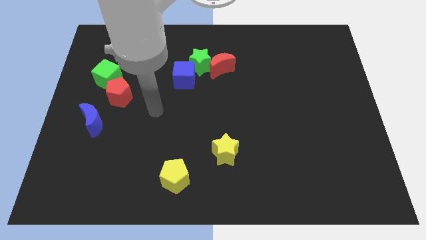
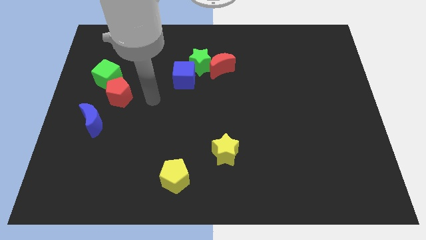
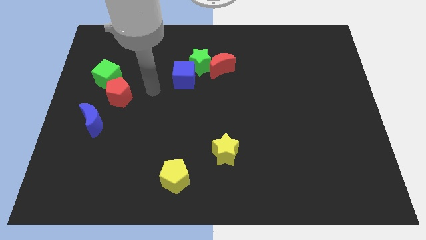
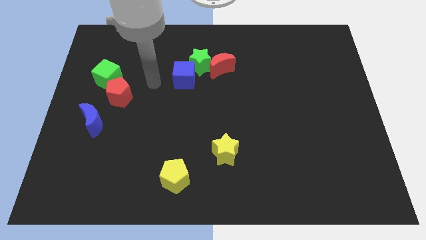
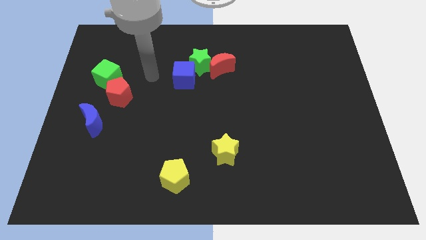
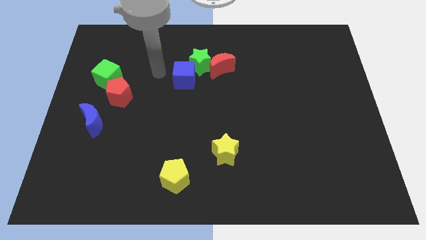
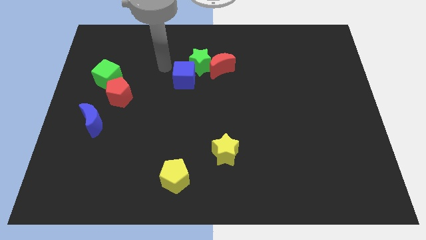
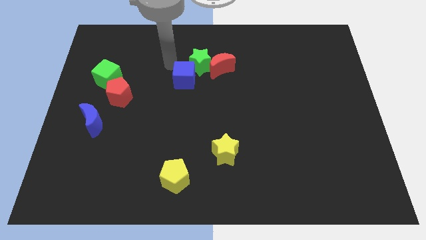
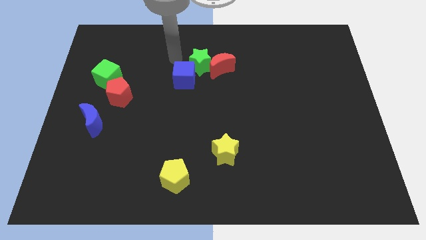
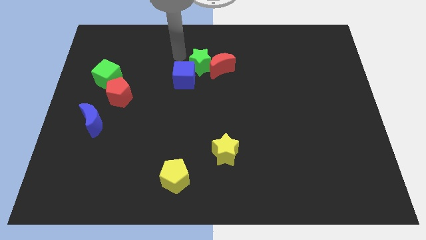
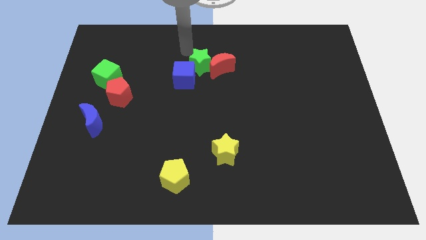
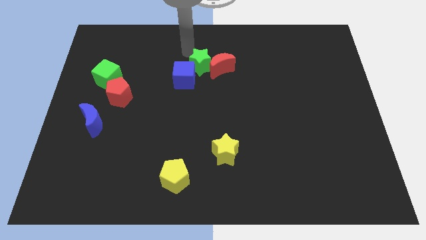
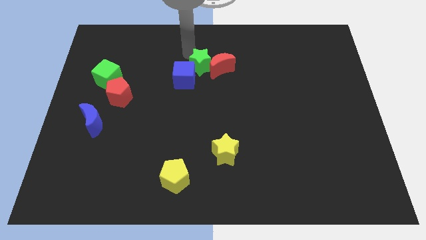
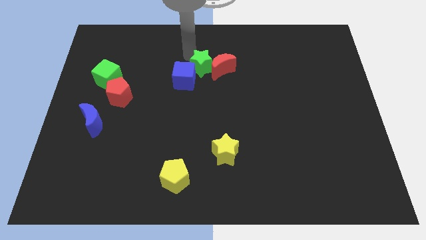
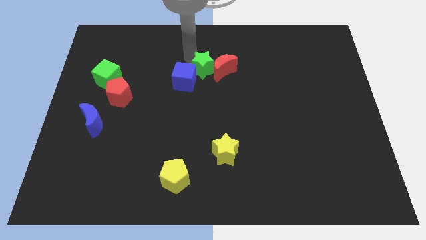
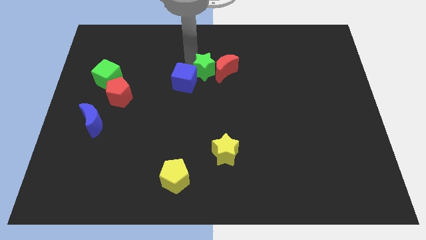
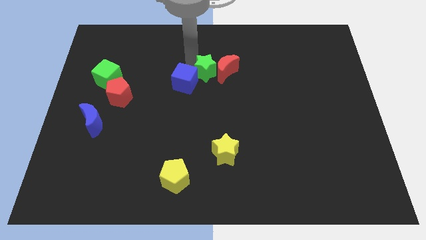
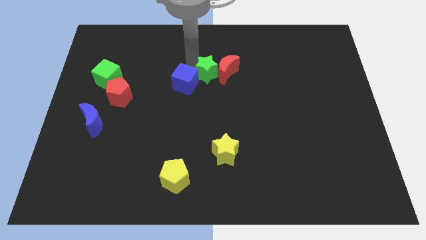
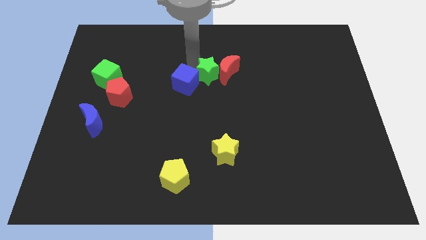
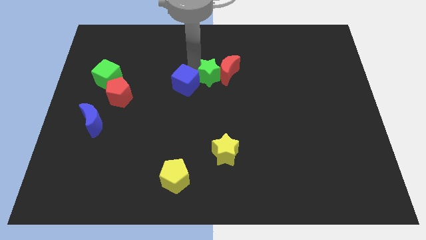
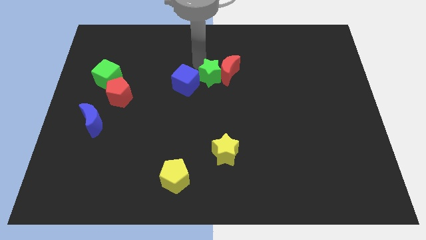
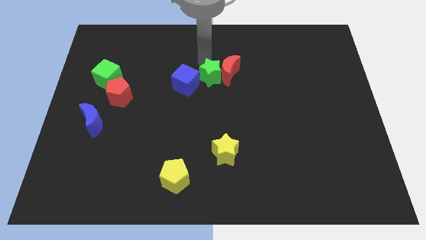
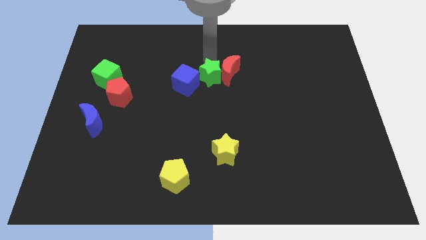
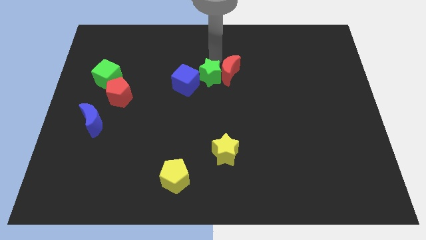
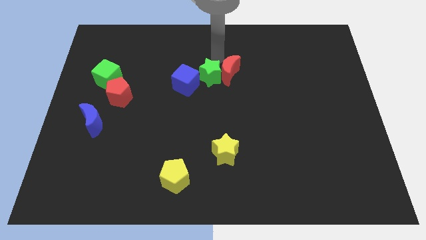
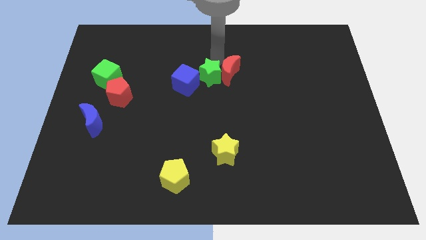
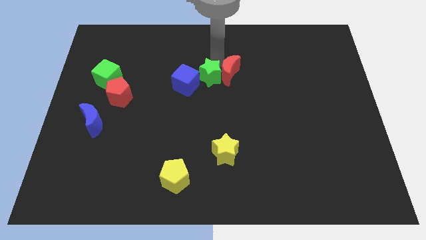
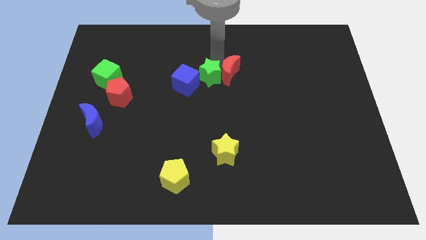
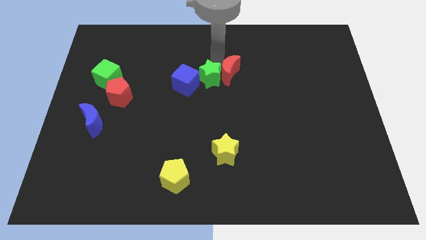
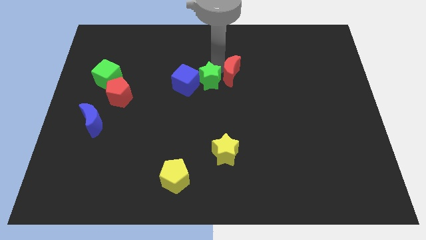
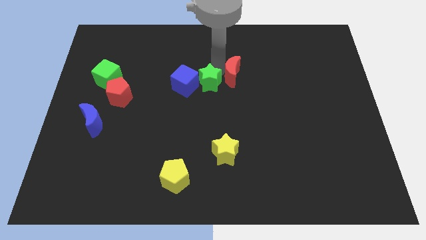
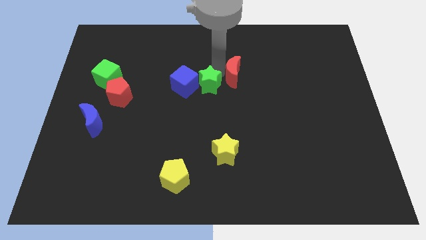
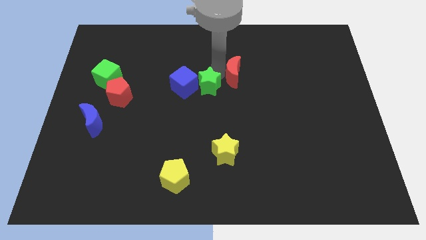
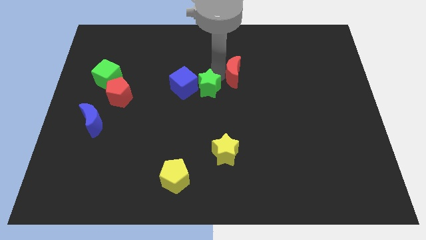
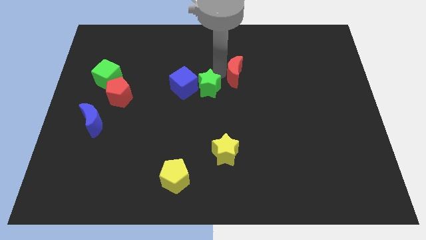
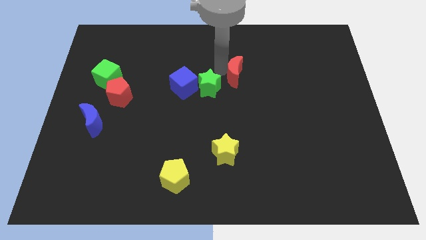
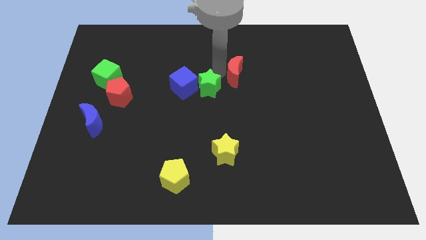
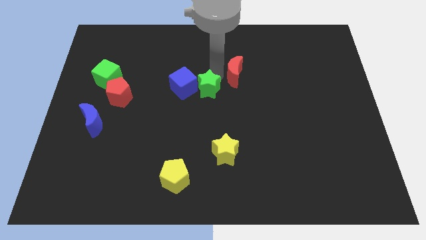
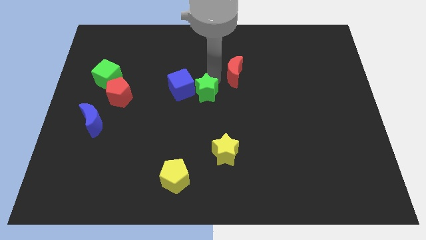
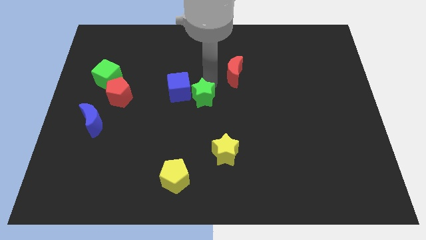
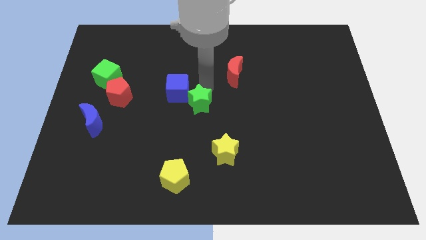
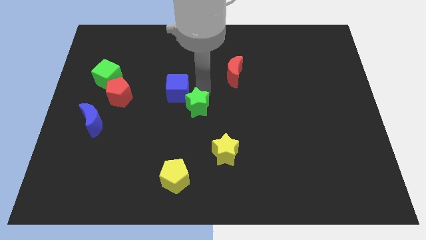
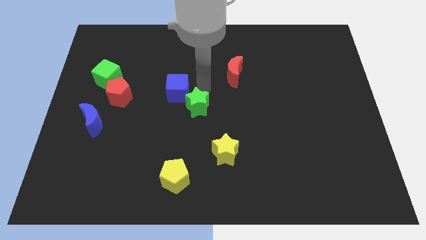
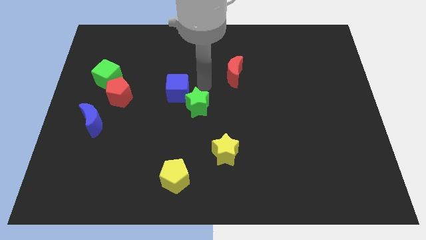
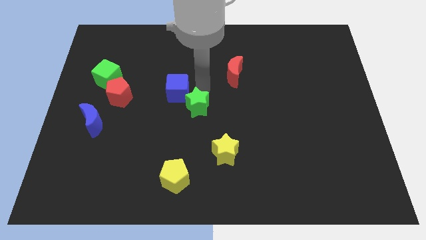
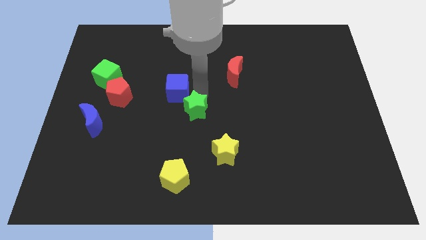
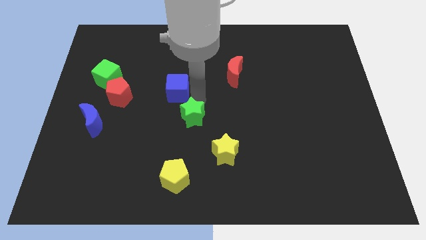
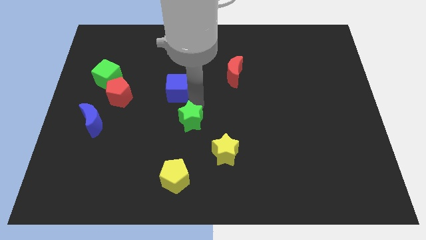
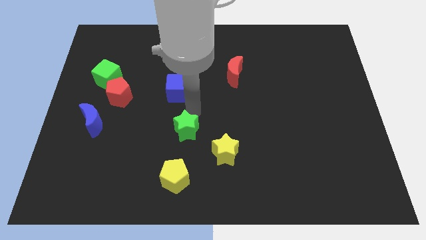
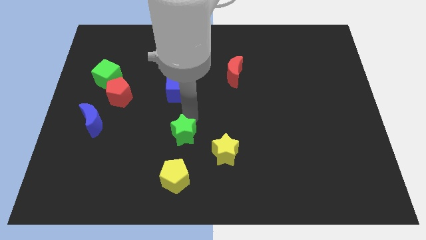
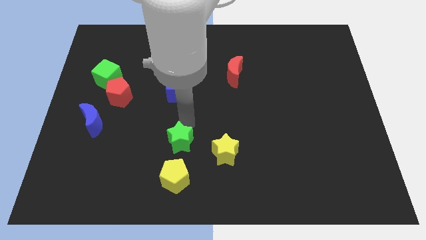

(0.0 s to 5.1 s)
push the green star to the left side of the yellow star

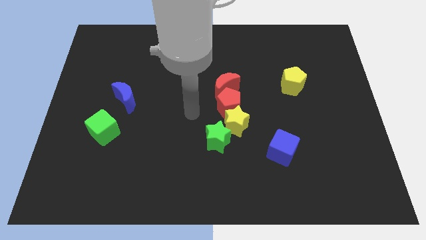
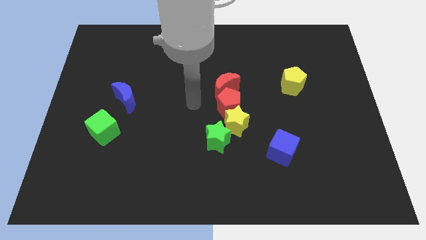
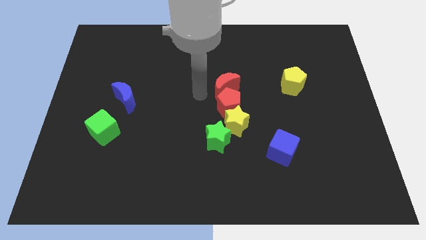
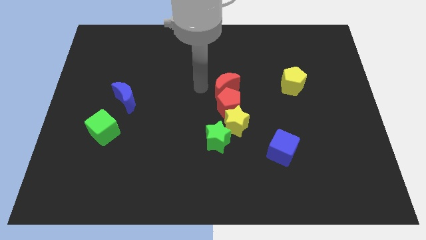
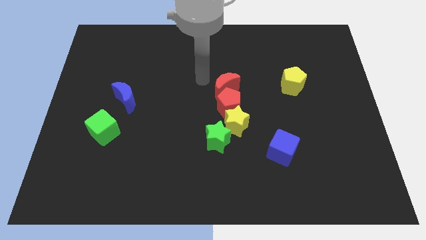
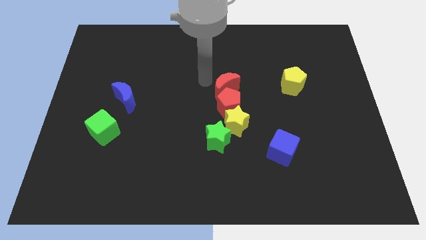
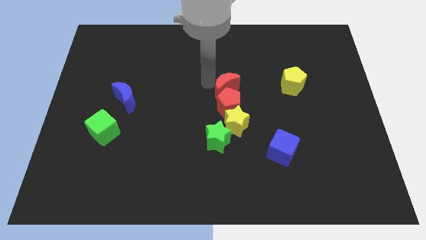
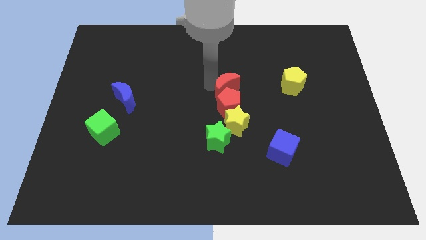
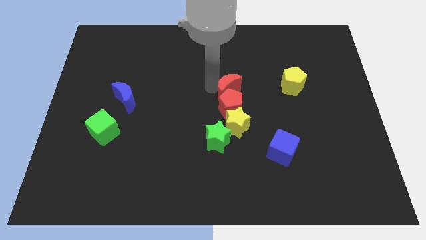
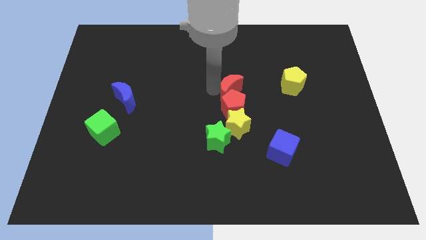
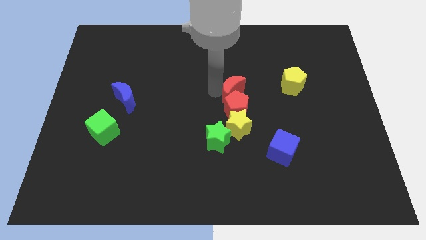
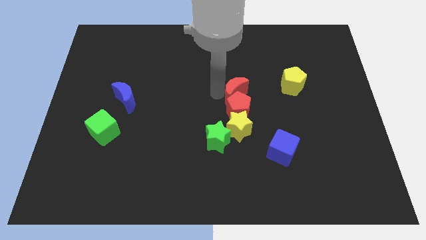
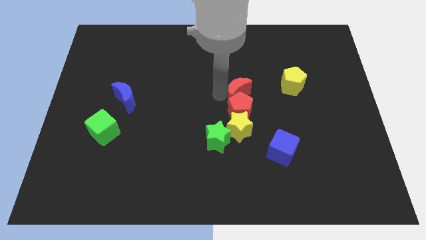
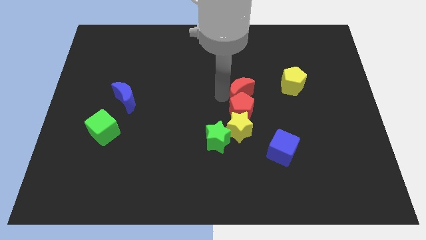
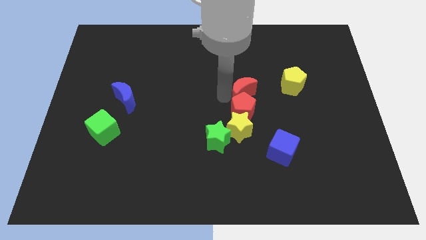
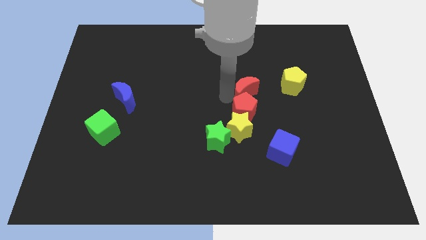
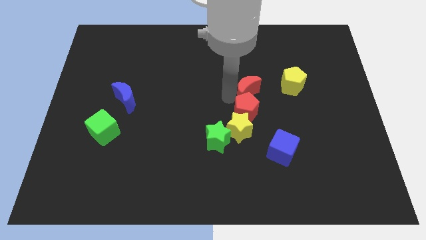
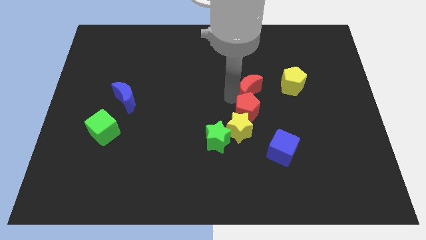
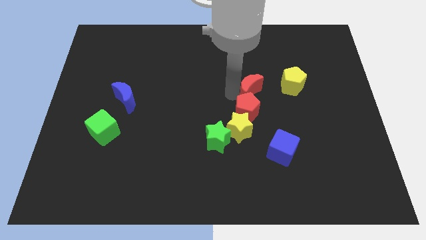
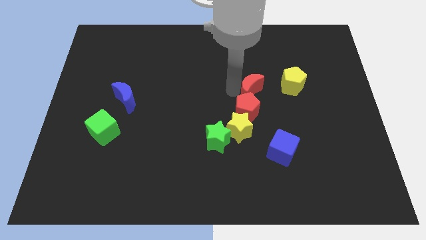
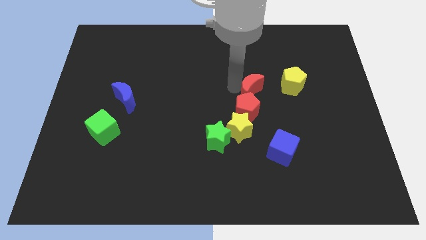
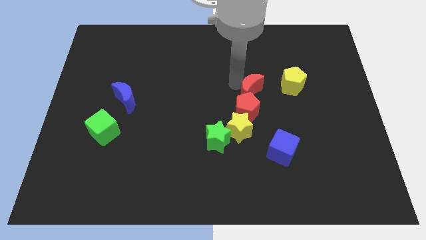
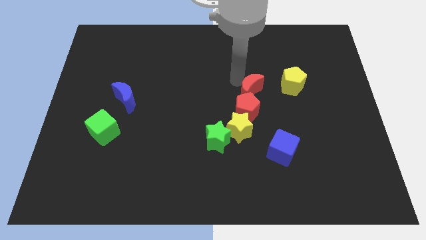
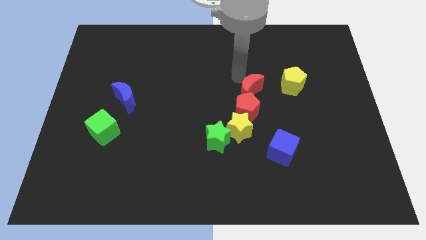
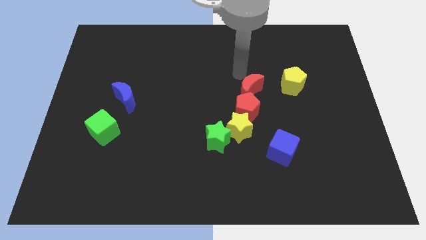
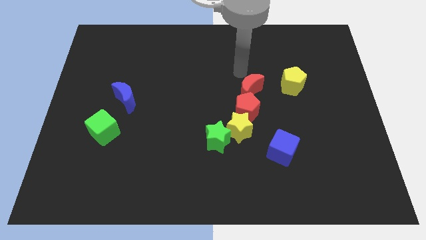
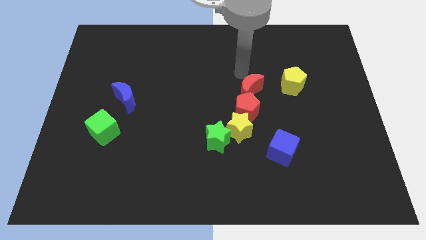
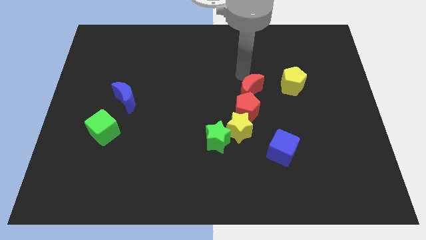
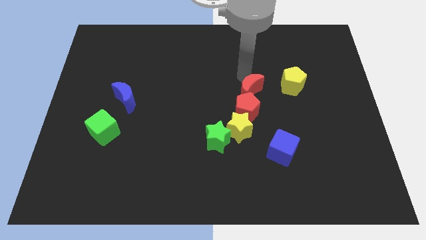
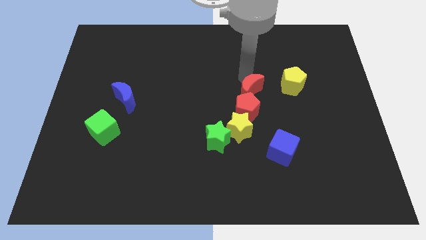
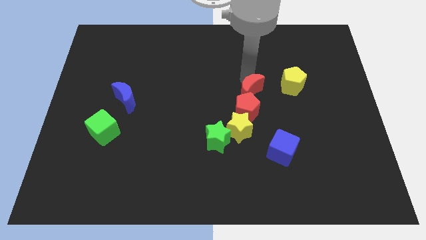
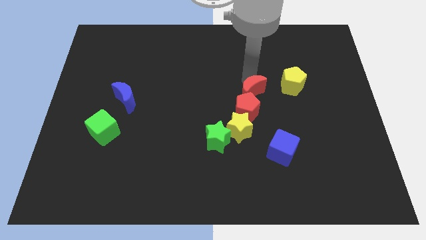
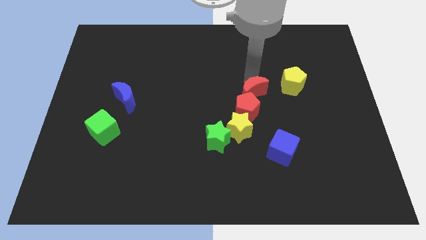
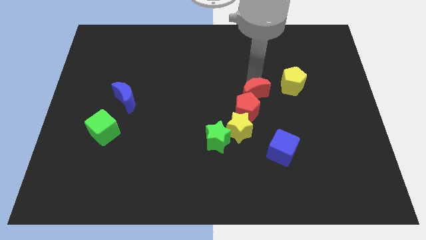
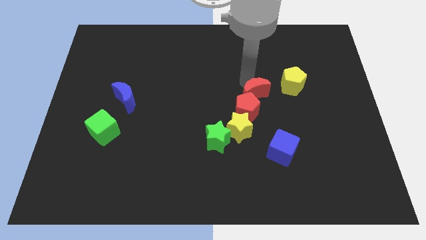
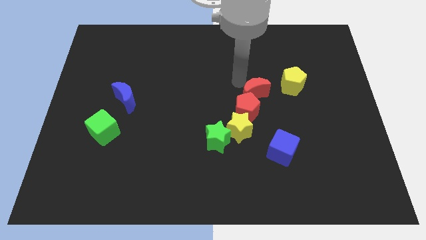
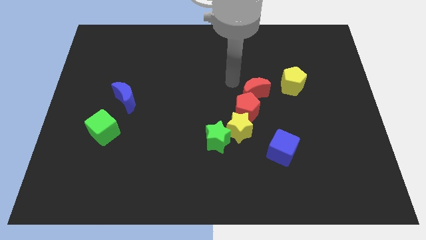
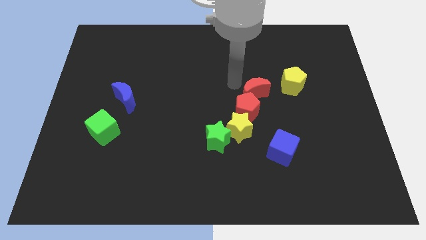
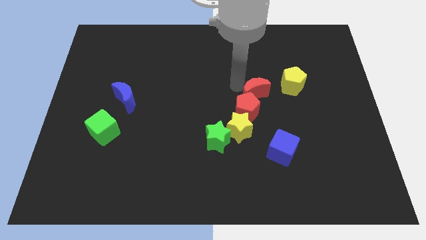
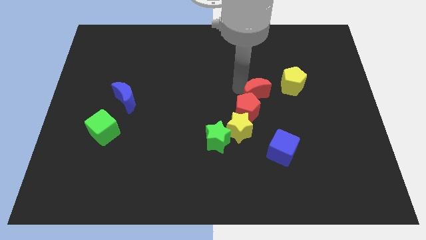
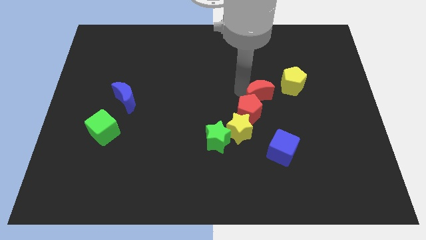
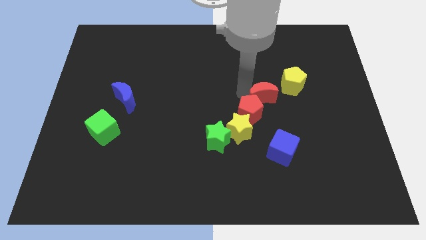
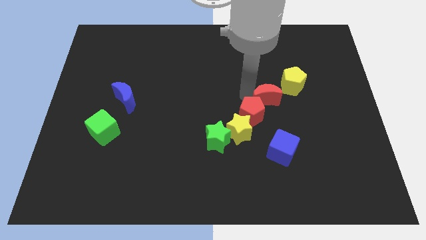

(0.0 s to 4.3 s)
slide the red moon right of the red pentagon
